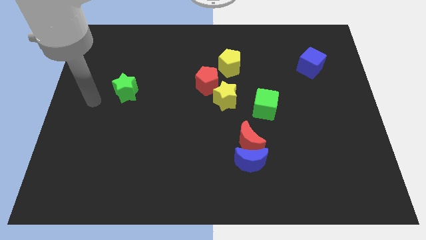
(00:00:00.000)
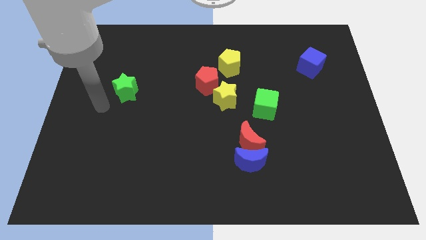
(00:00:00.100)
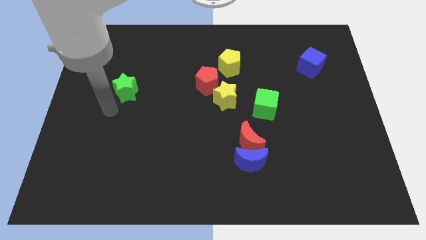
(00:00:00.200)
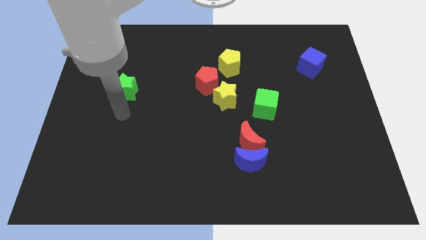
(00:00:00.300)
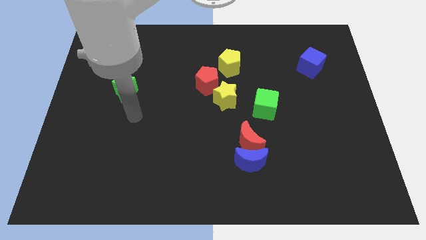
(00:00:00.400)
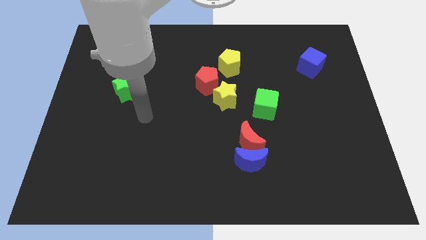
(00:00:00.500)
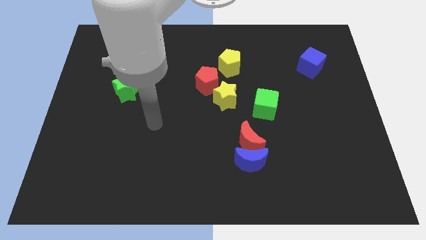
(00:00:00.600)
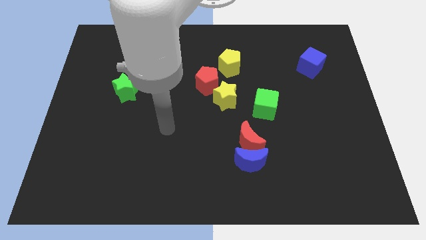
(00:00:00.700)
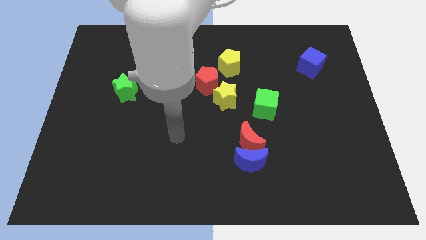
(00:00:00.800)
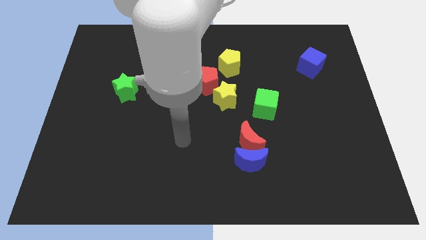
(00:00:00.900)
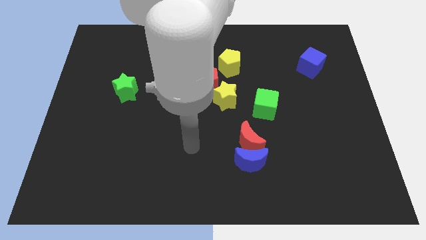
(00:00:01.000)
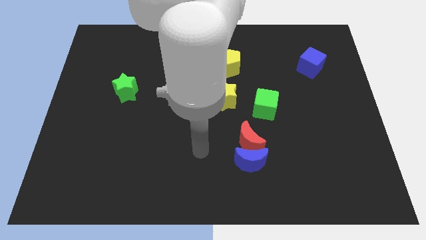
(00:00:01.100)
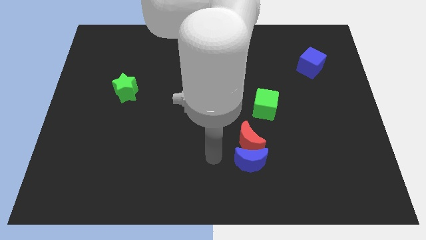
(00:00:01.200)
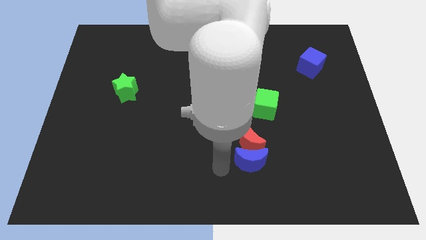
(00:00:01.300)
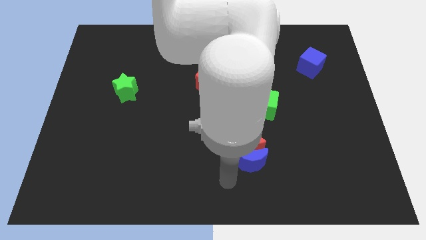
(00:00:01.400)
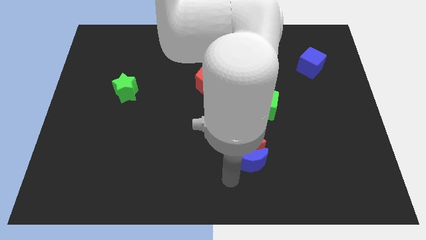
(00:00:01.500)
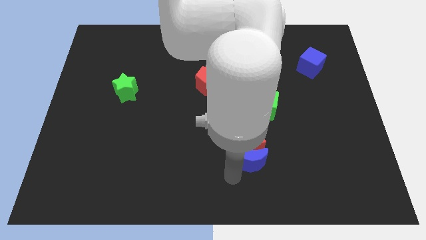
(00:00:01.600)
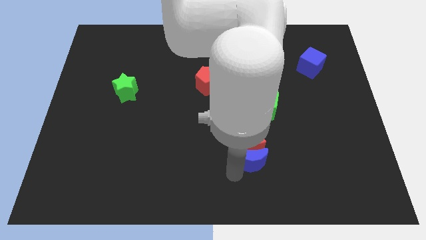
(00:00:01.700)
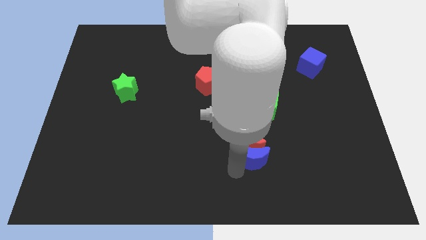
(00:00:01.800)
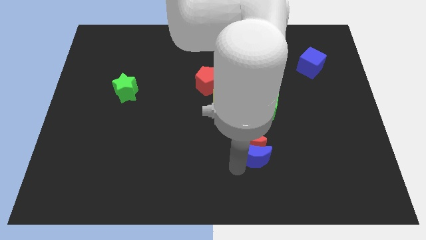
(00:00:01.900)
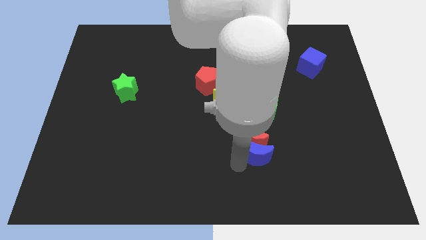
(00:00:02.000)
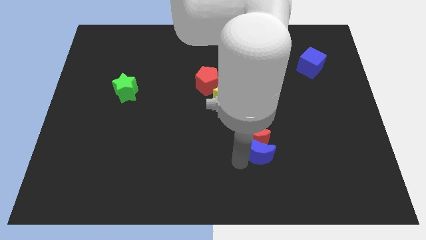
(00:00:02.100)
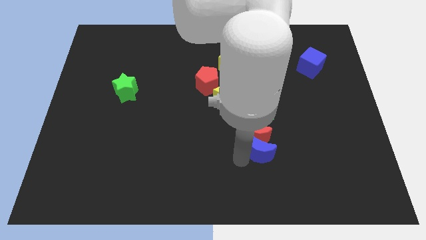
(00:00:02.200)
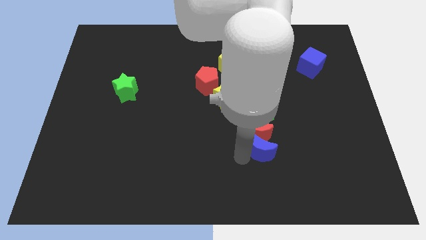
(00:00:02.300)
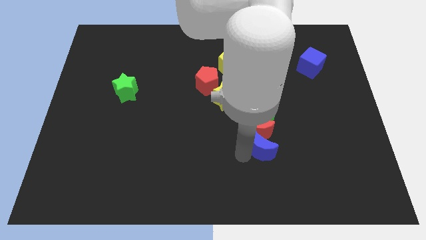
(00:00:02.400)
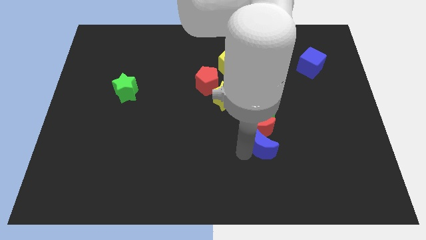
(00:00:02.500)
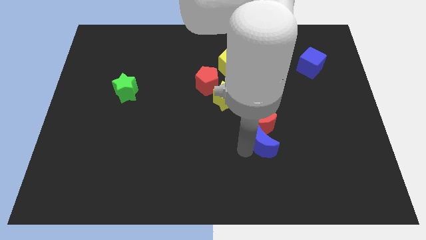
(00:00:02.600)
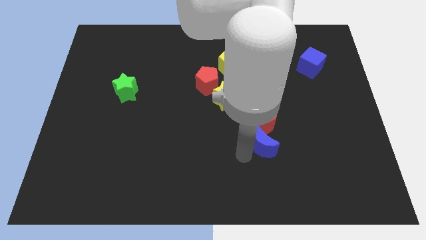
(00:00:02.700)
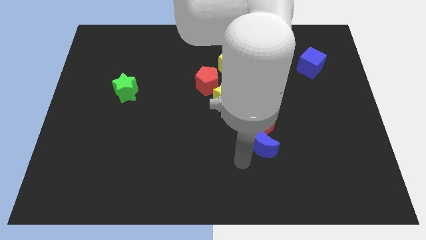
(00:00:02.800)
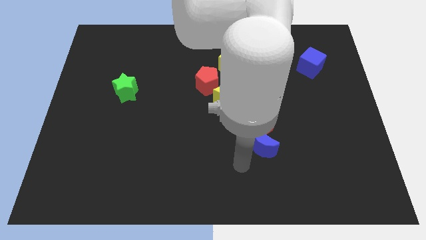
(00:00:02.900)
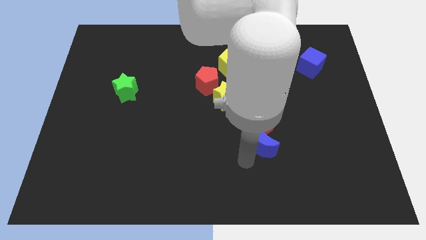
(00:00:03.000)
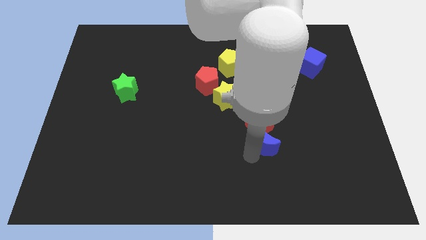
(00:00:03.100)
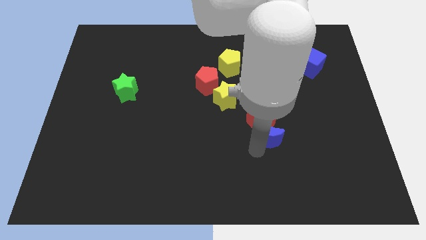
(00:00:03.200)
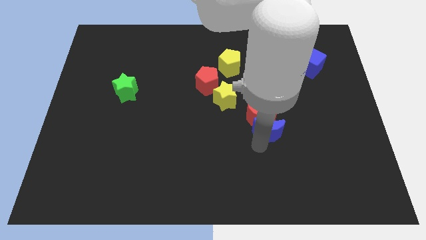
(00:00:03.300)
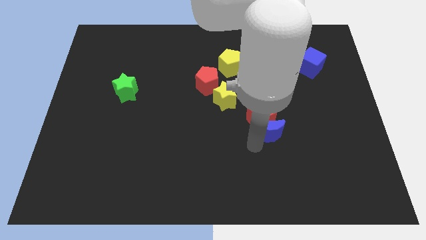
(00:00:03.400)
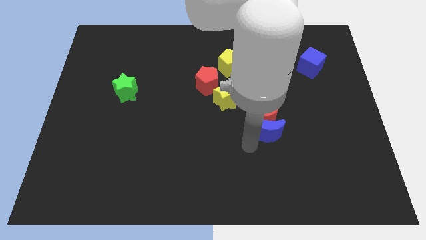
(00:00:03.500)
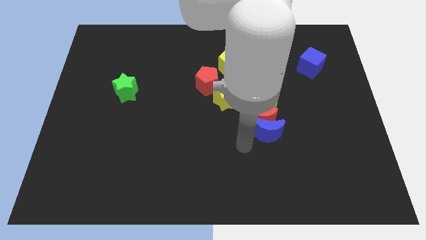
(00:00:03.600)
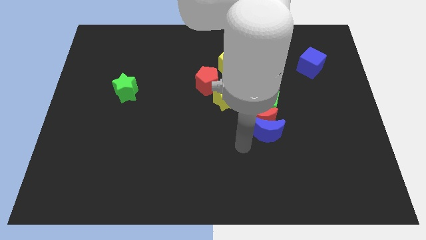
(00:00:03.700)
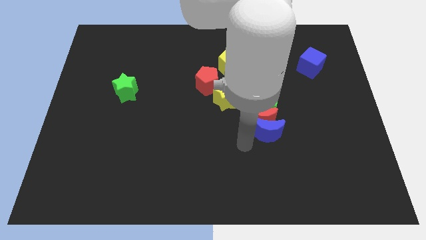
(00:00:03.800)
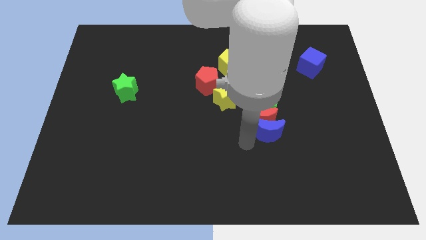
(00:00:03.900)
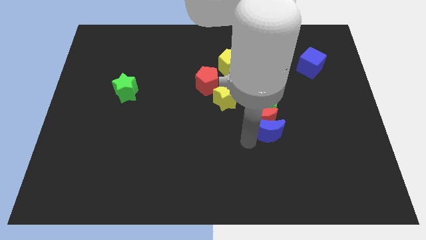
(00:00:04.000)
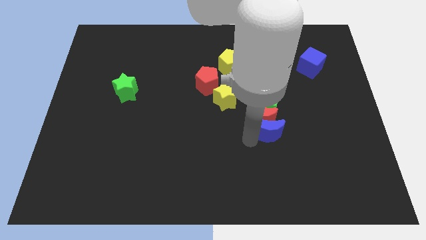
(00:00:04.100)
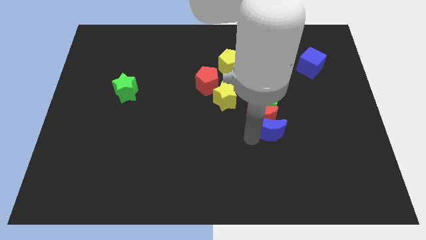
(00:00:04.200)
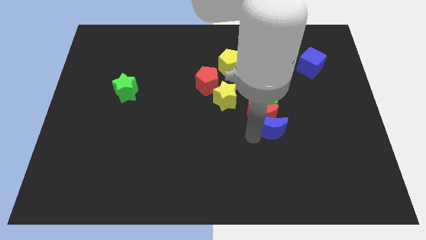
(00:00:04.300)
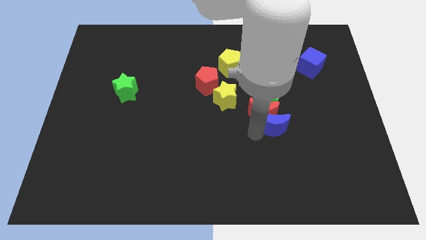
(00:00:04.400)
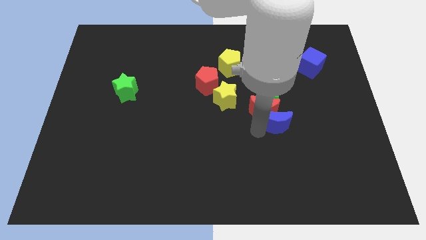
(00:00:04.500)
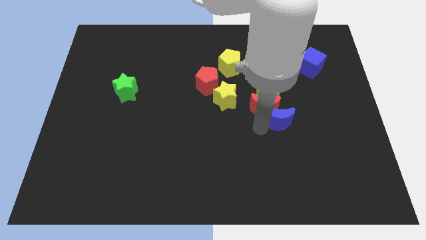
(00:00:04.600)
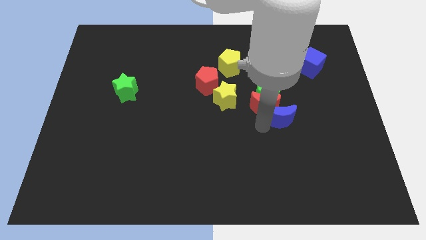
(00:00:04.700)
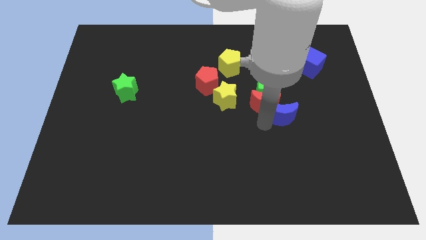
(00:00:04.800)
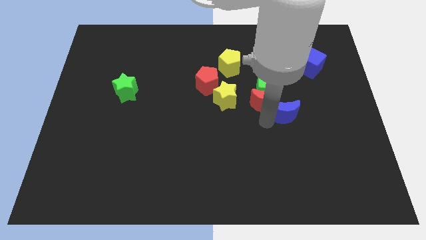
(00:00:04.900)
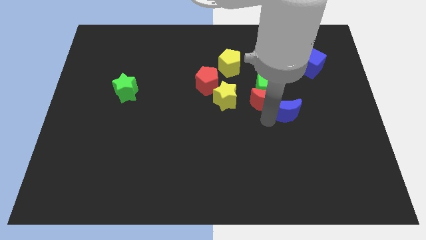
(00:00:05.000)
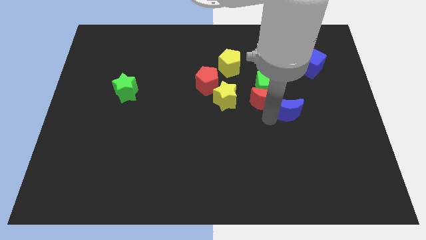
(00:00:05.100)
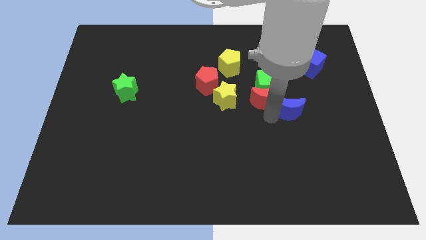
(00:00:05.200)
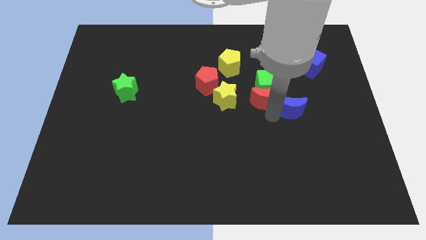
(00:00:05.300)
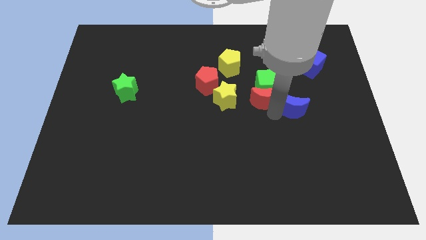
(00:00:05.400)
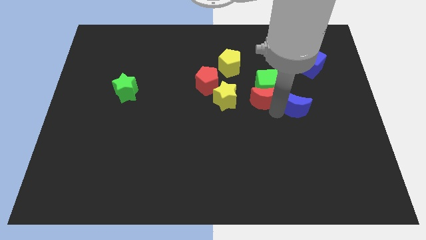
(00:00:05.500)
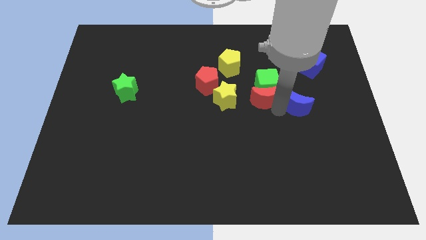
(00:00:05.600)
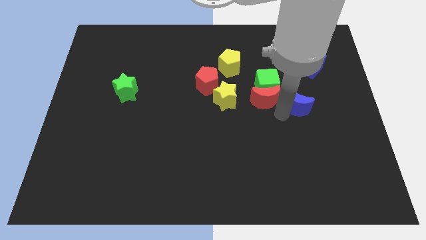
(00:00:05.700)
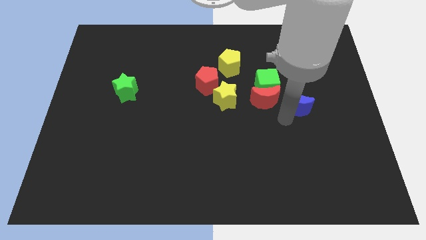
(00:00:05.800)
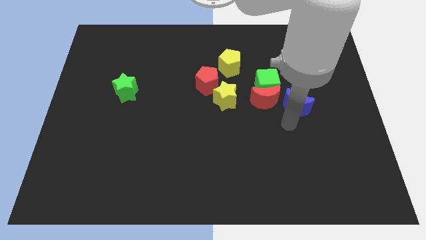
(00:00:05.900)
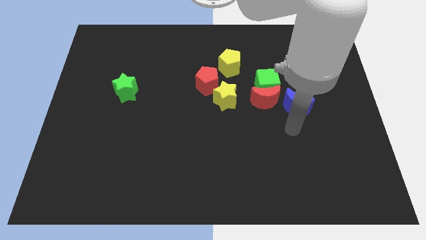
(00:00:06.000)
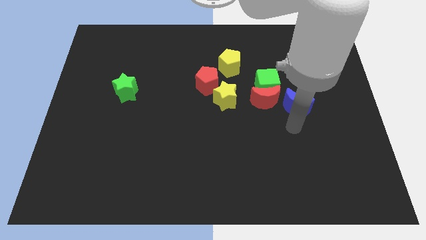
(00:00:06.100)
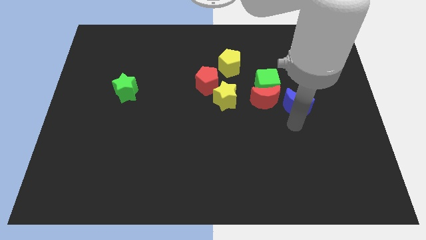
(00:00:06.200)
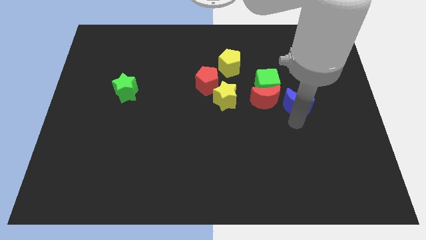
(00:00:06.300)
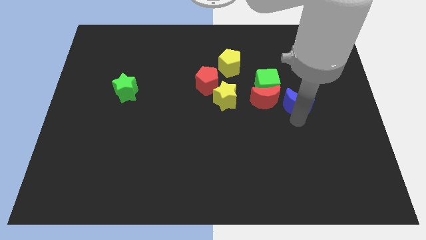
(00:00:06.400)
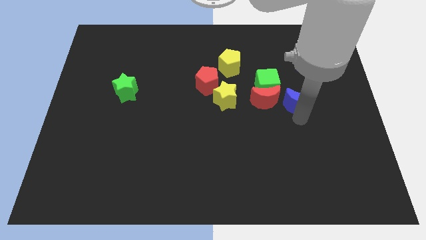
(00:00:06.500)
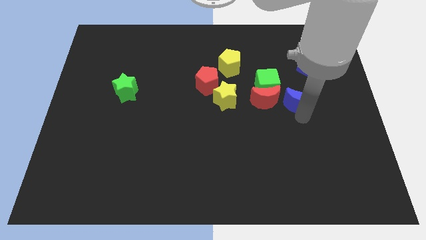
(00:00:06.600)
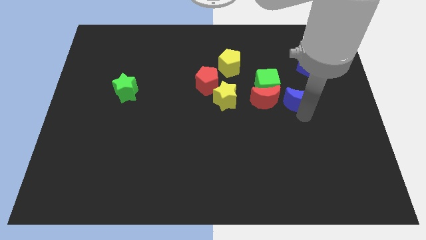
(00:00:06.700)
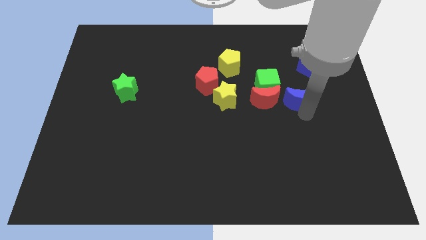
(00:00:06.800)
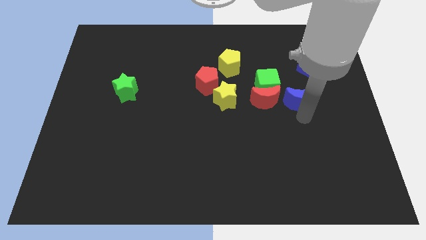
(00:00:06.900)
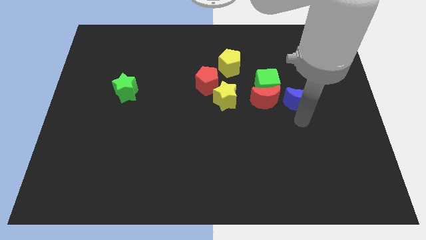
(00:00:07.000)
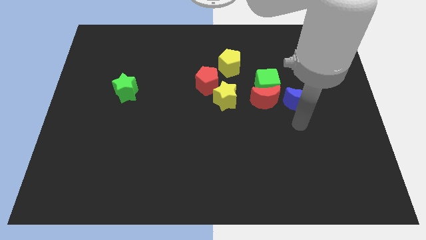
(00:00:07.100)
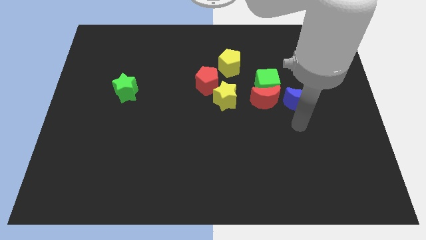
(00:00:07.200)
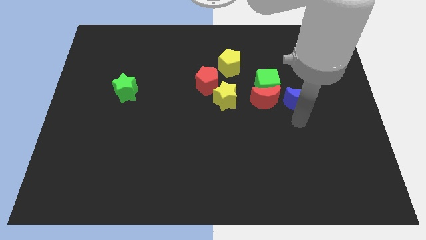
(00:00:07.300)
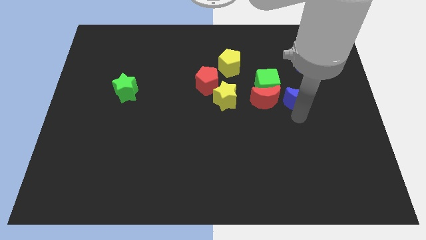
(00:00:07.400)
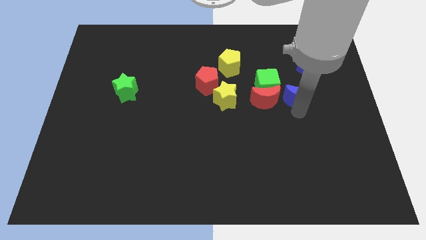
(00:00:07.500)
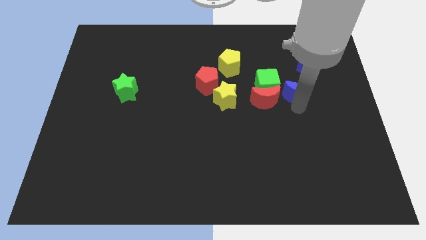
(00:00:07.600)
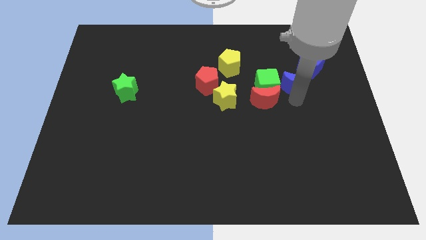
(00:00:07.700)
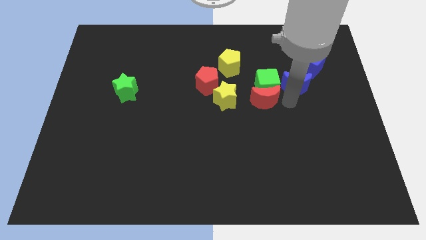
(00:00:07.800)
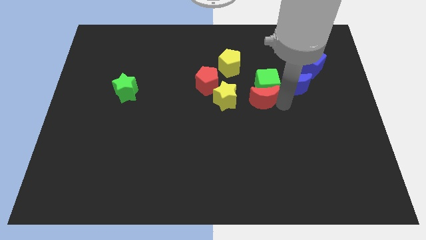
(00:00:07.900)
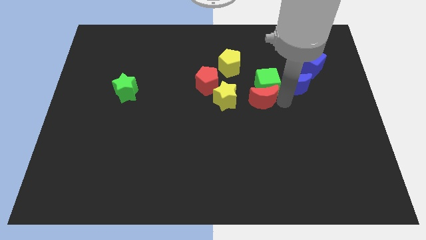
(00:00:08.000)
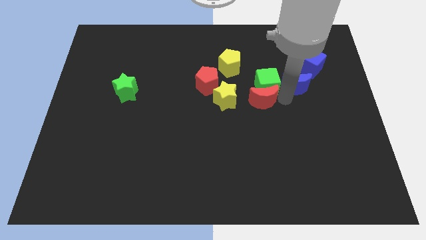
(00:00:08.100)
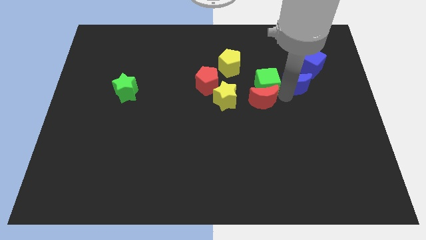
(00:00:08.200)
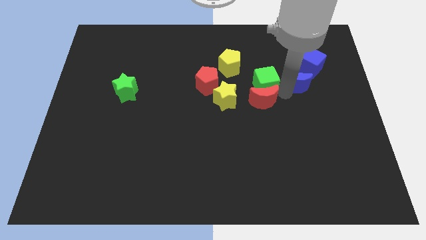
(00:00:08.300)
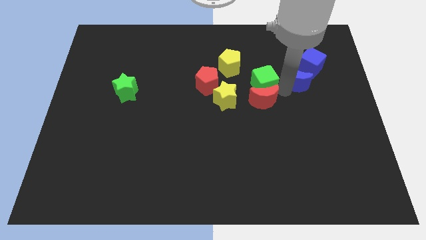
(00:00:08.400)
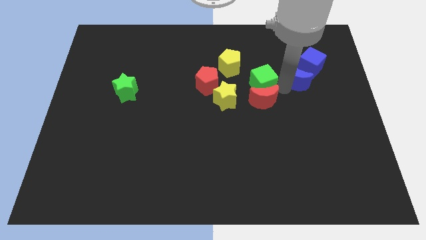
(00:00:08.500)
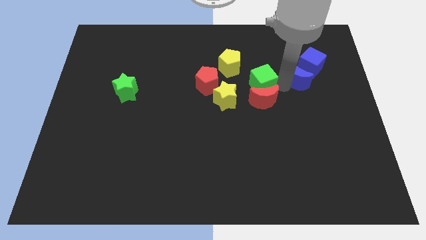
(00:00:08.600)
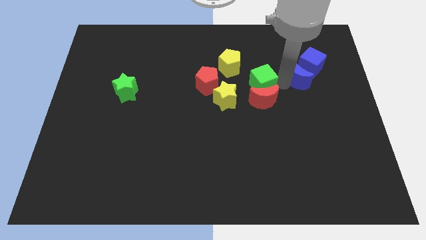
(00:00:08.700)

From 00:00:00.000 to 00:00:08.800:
move the blue moon towards the blue cube
